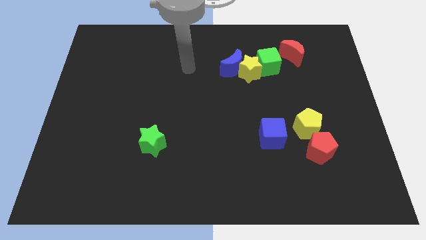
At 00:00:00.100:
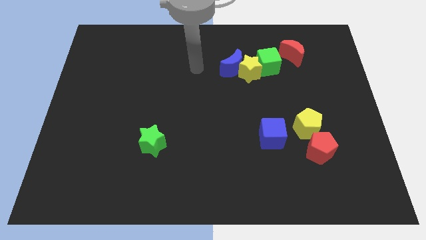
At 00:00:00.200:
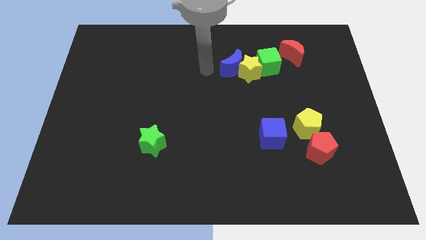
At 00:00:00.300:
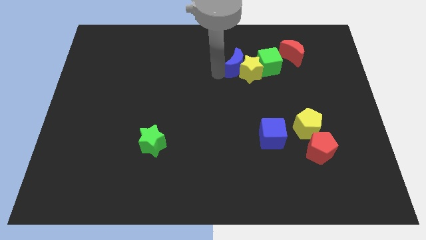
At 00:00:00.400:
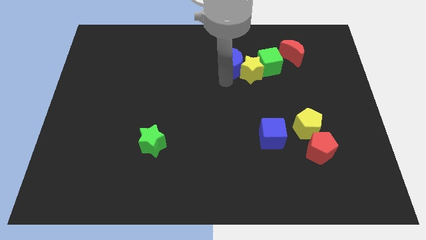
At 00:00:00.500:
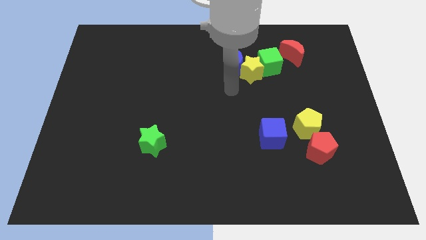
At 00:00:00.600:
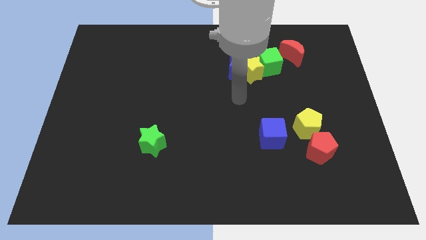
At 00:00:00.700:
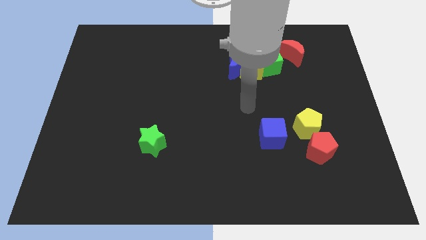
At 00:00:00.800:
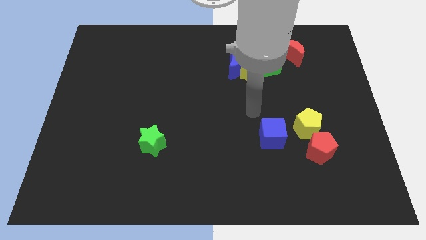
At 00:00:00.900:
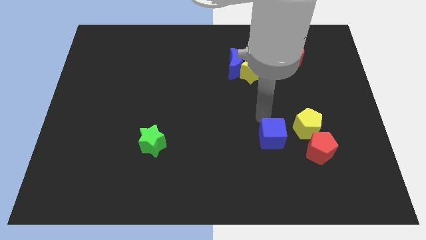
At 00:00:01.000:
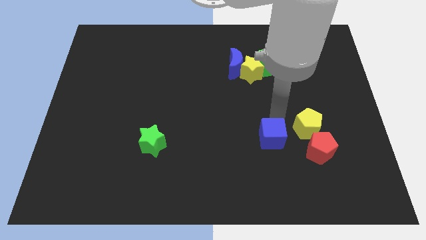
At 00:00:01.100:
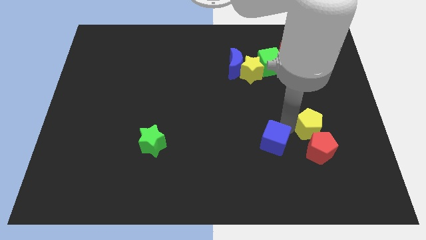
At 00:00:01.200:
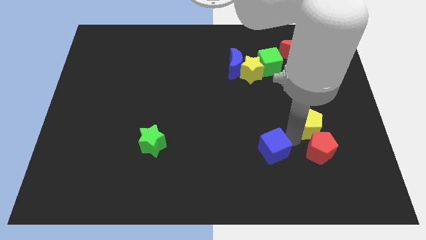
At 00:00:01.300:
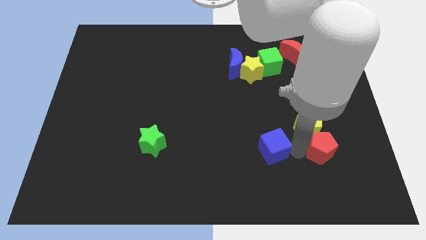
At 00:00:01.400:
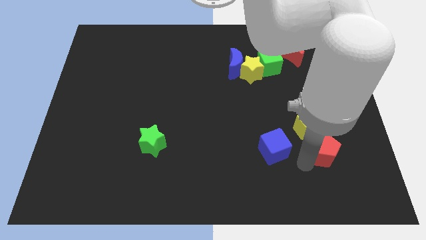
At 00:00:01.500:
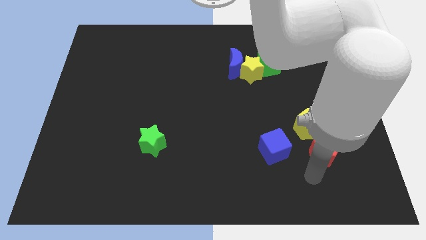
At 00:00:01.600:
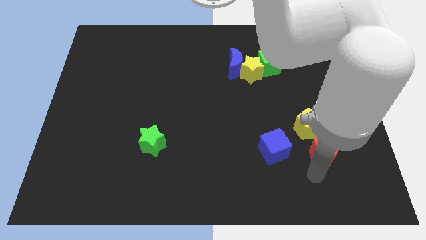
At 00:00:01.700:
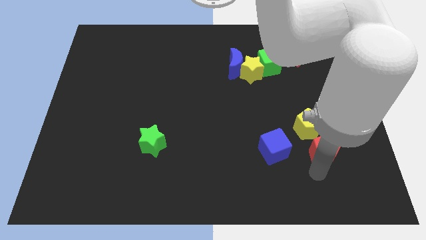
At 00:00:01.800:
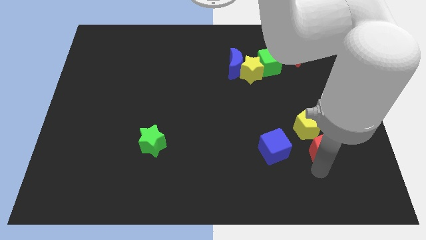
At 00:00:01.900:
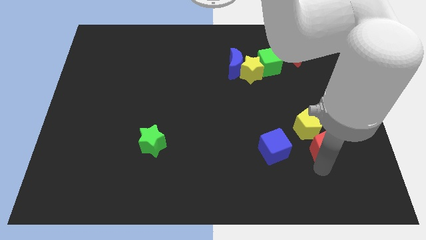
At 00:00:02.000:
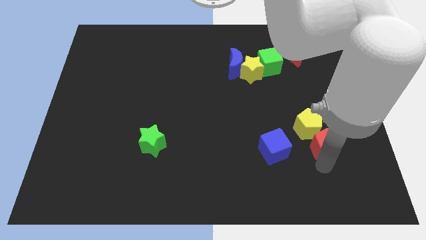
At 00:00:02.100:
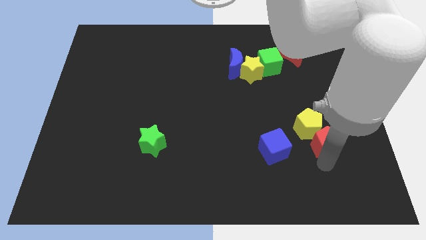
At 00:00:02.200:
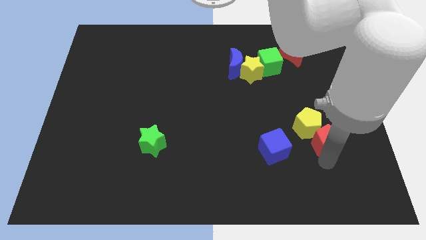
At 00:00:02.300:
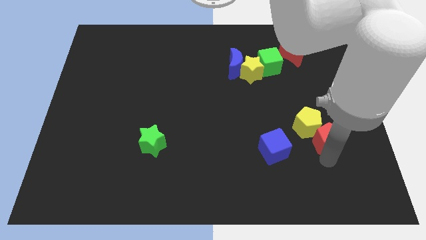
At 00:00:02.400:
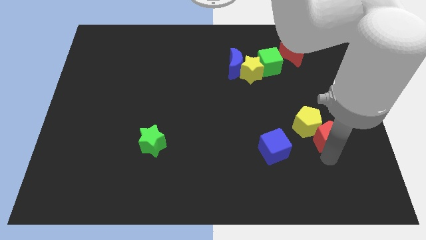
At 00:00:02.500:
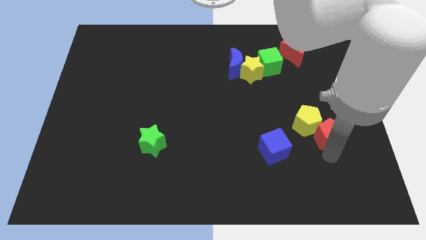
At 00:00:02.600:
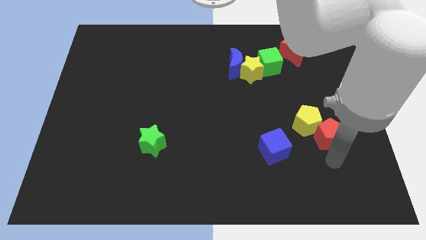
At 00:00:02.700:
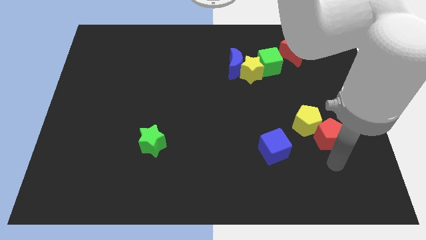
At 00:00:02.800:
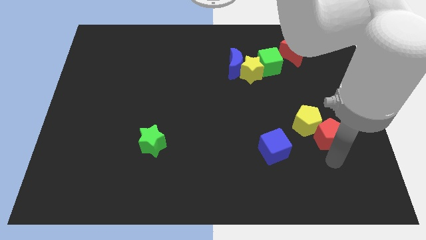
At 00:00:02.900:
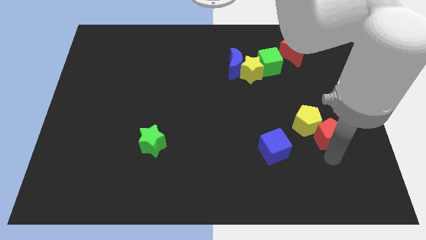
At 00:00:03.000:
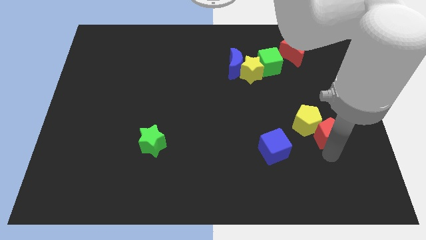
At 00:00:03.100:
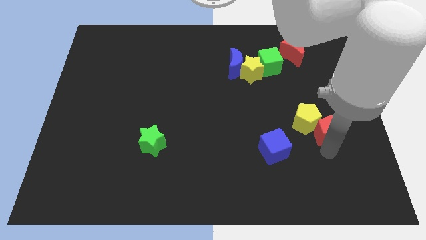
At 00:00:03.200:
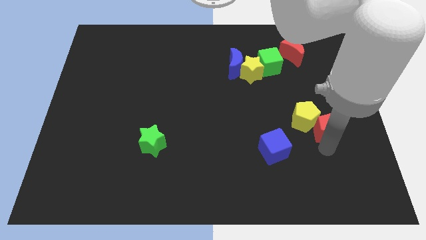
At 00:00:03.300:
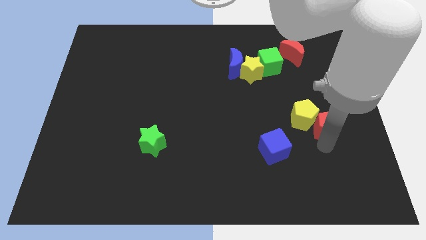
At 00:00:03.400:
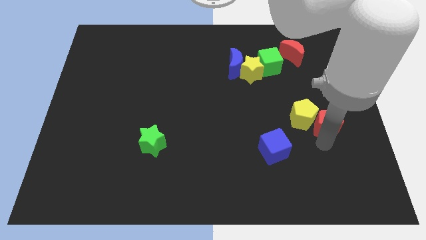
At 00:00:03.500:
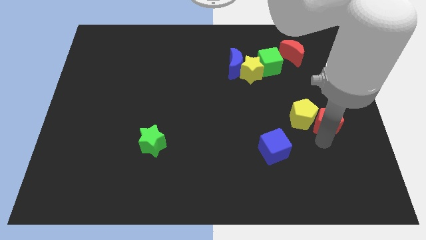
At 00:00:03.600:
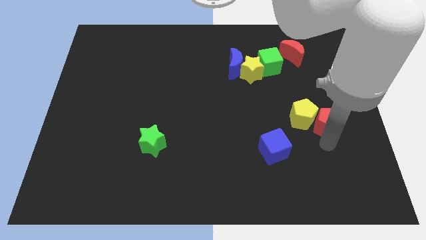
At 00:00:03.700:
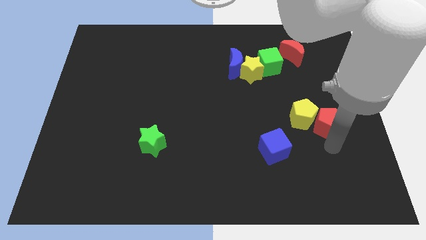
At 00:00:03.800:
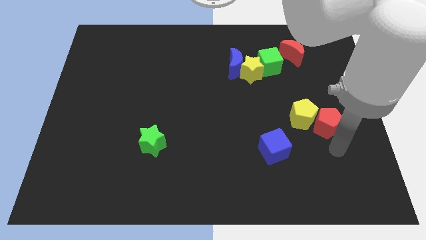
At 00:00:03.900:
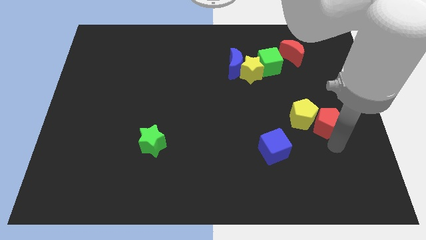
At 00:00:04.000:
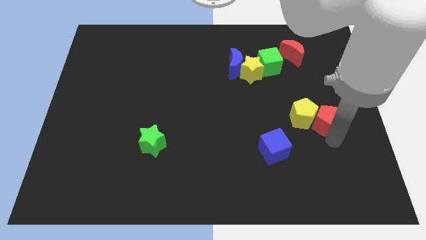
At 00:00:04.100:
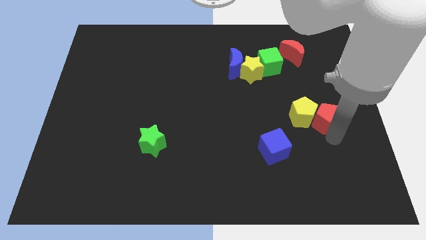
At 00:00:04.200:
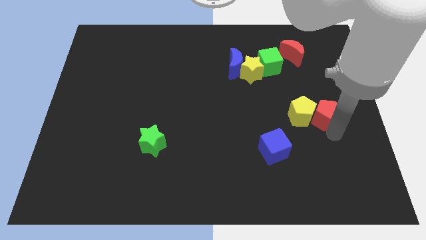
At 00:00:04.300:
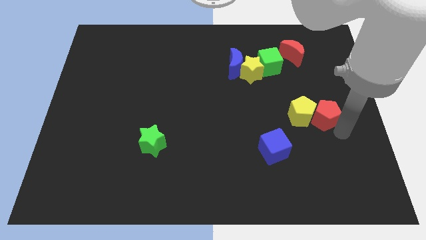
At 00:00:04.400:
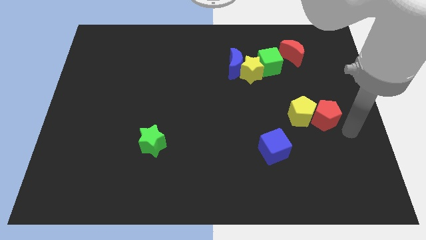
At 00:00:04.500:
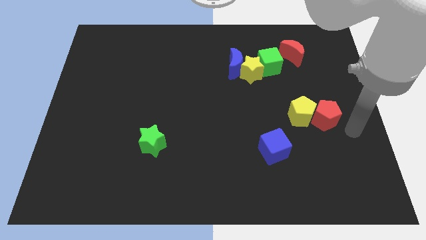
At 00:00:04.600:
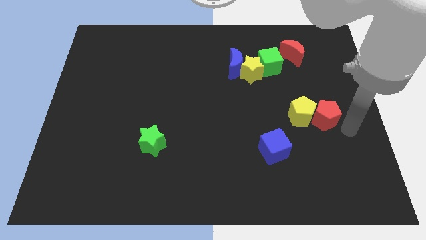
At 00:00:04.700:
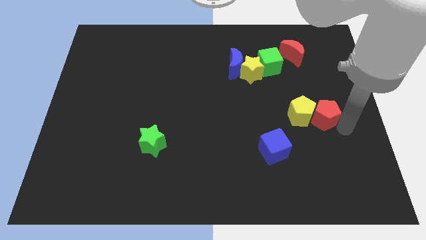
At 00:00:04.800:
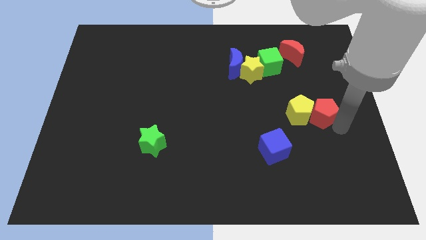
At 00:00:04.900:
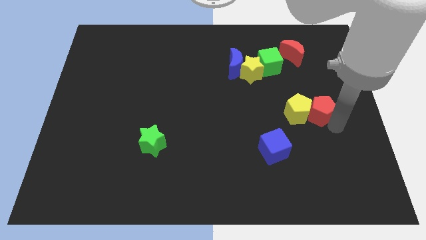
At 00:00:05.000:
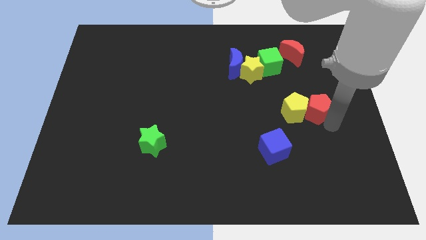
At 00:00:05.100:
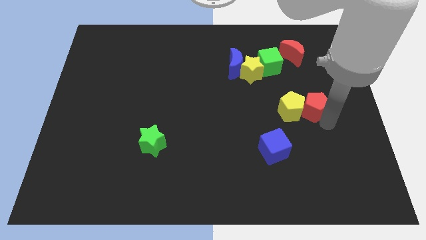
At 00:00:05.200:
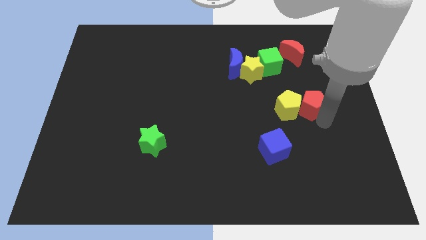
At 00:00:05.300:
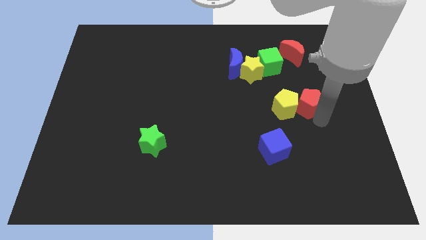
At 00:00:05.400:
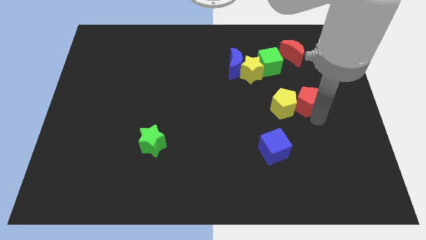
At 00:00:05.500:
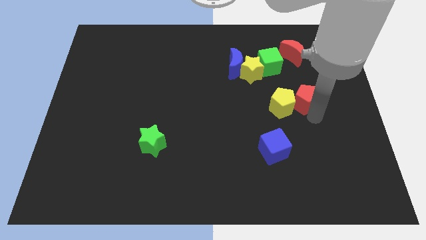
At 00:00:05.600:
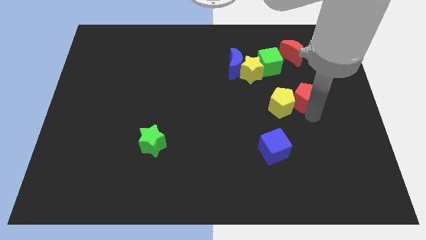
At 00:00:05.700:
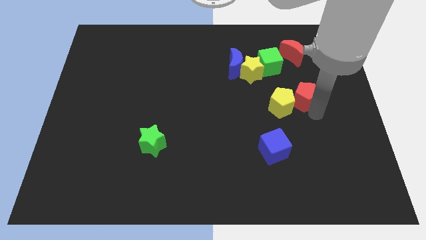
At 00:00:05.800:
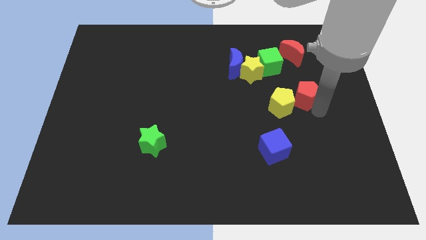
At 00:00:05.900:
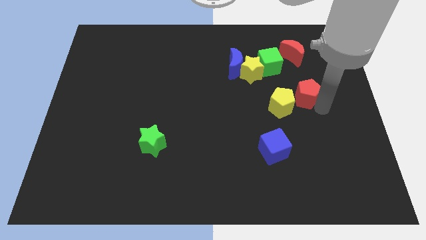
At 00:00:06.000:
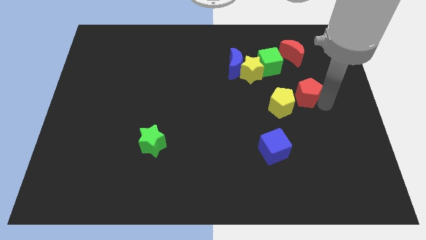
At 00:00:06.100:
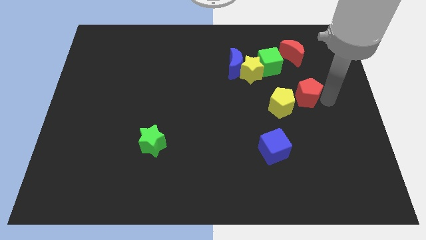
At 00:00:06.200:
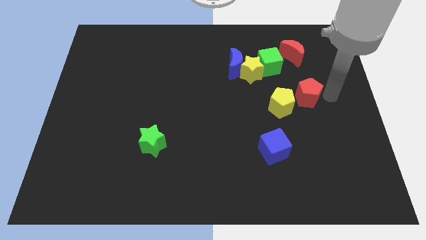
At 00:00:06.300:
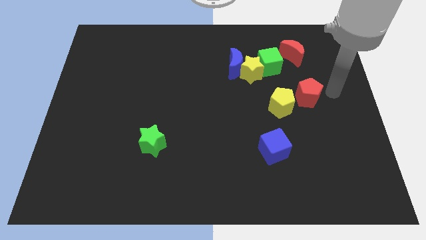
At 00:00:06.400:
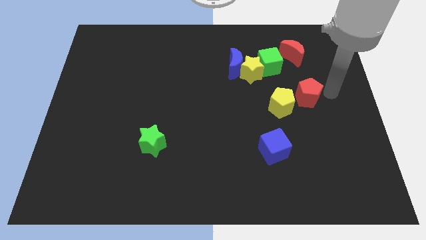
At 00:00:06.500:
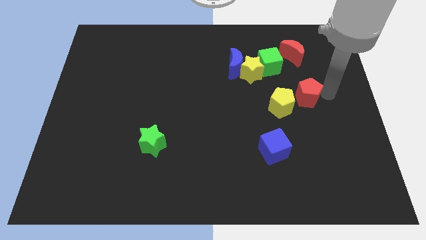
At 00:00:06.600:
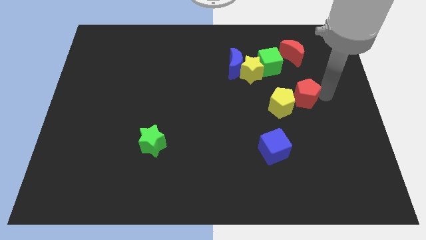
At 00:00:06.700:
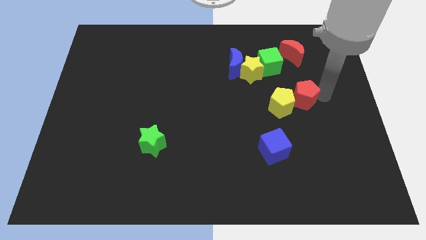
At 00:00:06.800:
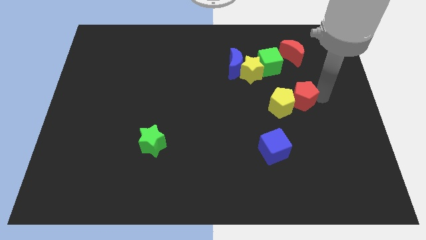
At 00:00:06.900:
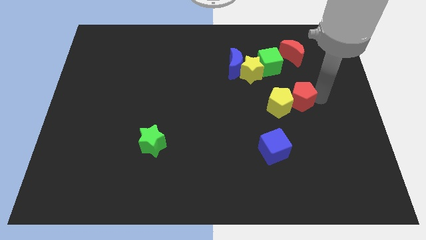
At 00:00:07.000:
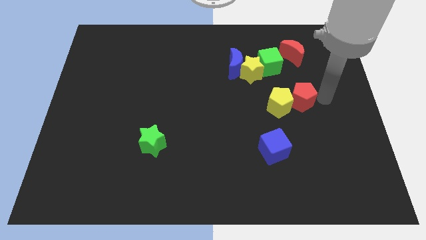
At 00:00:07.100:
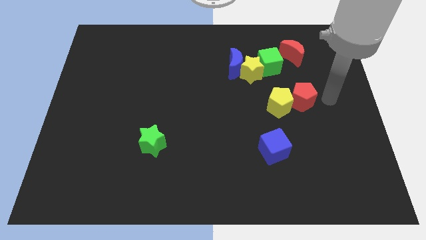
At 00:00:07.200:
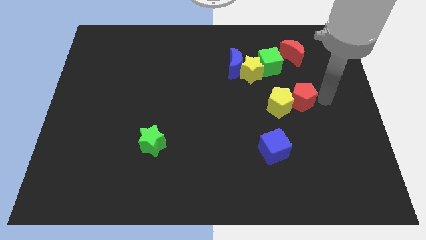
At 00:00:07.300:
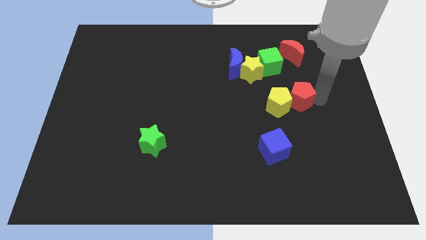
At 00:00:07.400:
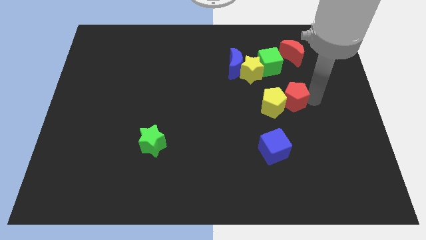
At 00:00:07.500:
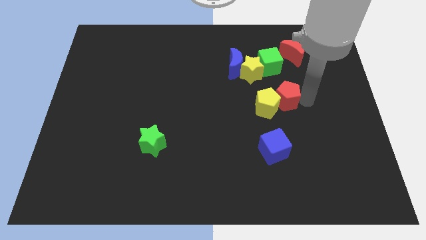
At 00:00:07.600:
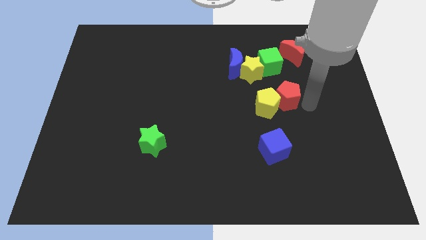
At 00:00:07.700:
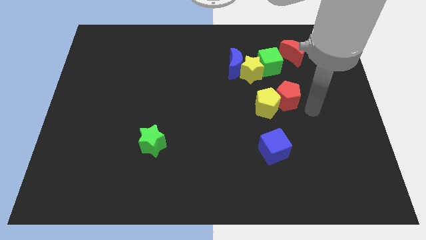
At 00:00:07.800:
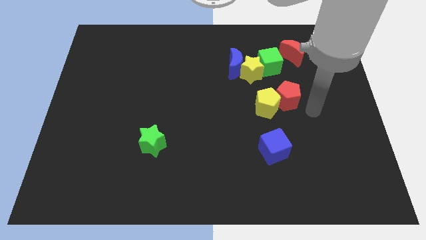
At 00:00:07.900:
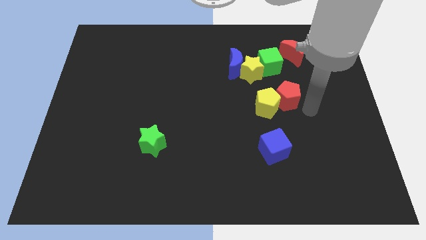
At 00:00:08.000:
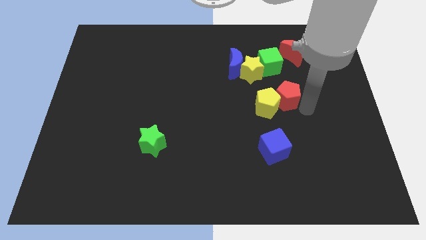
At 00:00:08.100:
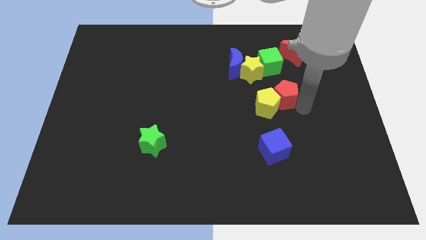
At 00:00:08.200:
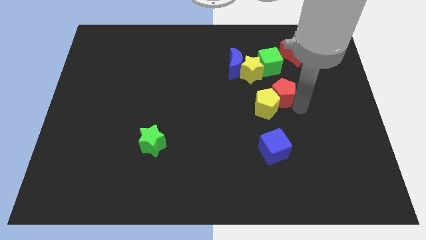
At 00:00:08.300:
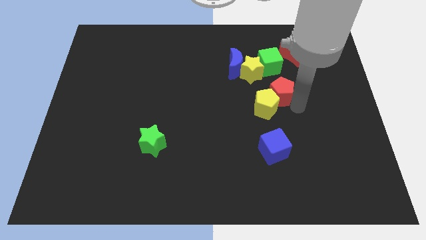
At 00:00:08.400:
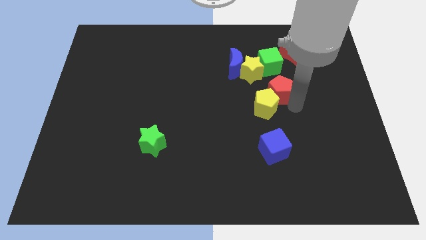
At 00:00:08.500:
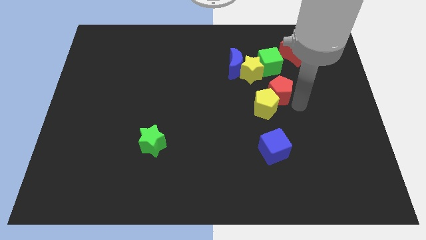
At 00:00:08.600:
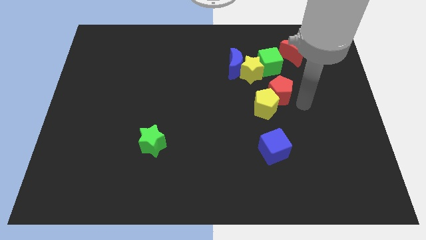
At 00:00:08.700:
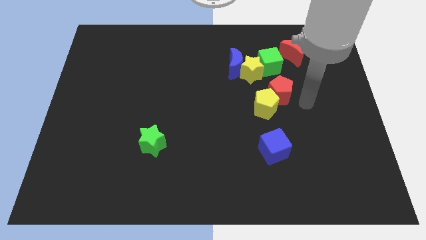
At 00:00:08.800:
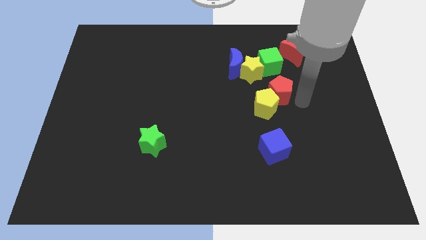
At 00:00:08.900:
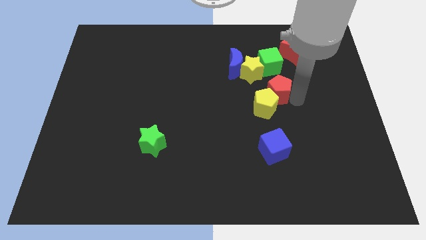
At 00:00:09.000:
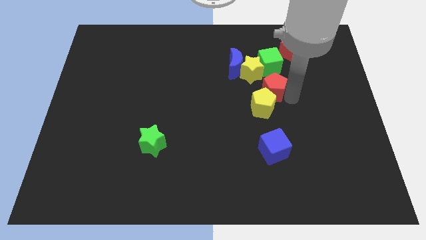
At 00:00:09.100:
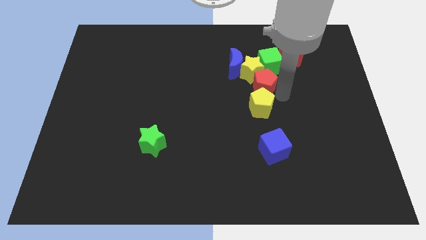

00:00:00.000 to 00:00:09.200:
move the red pentagon to the yellow star
